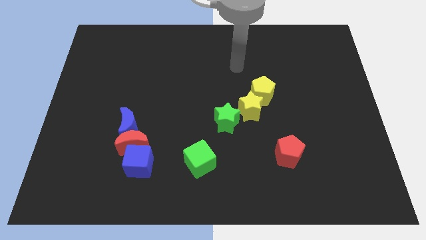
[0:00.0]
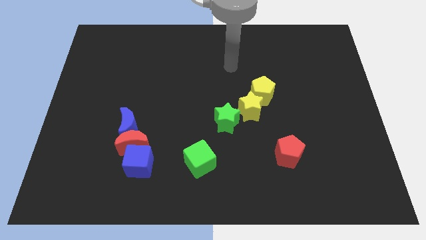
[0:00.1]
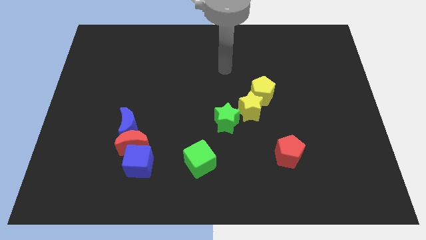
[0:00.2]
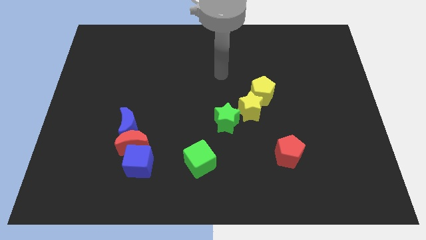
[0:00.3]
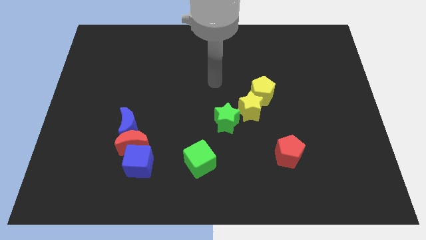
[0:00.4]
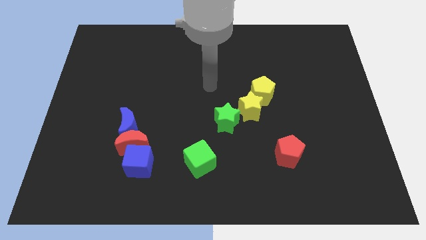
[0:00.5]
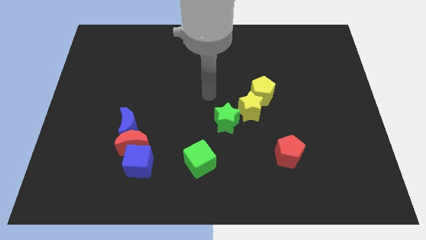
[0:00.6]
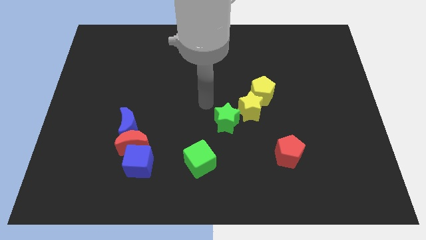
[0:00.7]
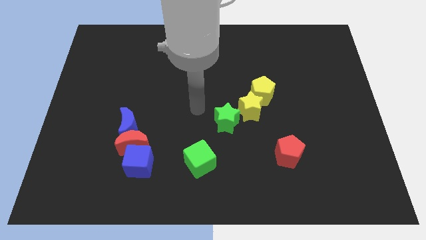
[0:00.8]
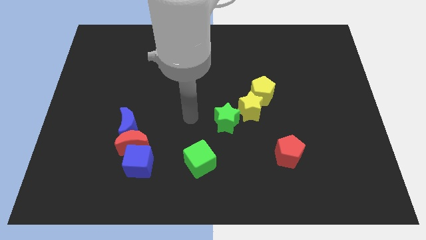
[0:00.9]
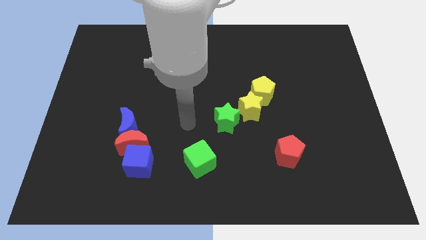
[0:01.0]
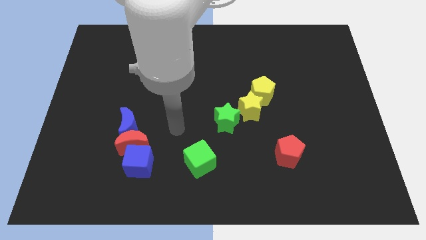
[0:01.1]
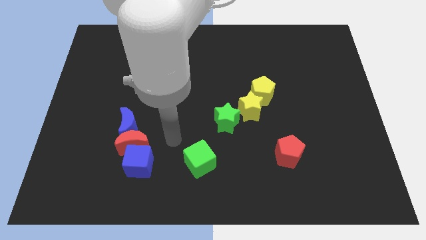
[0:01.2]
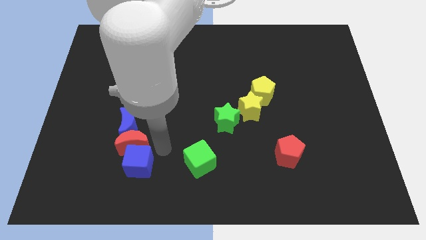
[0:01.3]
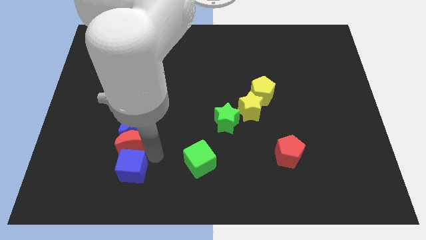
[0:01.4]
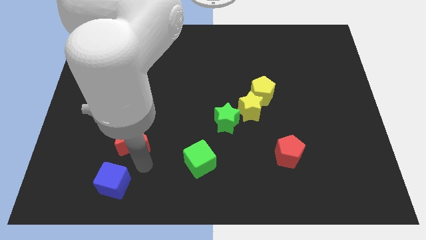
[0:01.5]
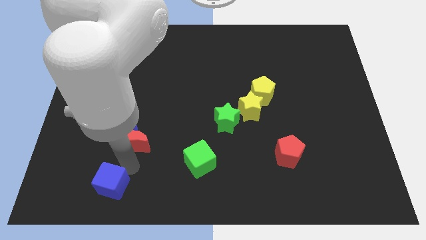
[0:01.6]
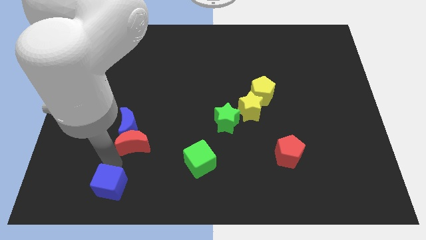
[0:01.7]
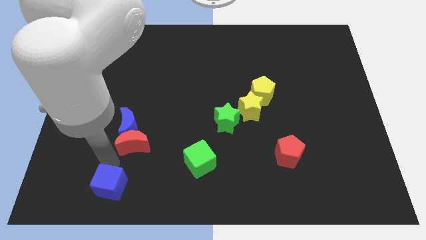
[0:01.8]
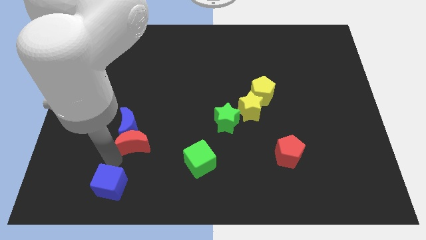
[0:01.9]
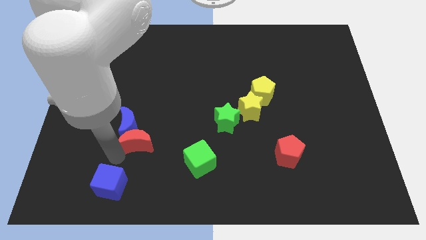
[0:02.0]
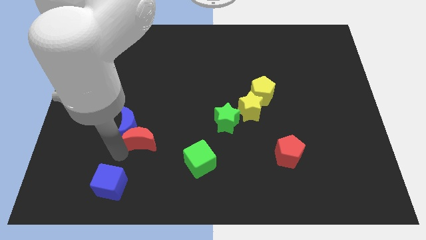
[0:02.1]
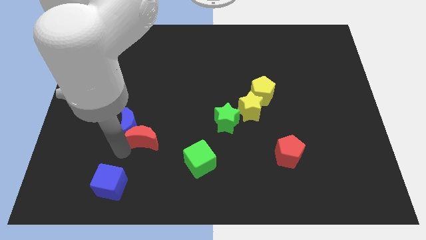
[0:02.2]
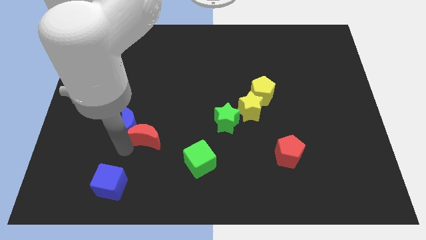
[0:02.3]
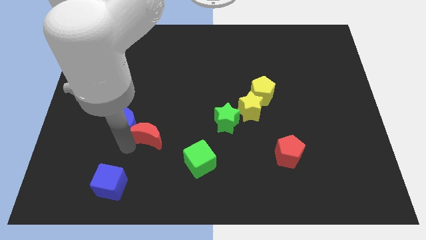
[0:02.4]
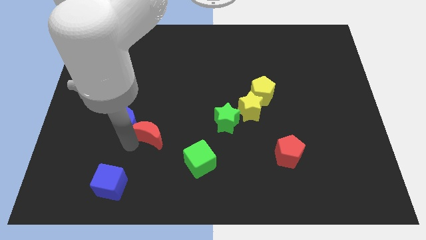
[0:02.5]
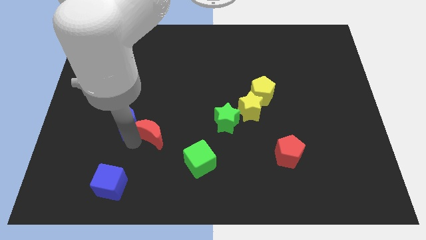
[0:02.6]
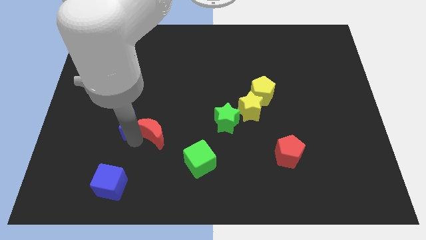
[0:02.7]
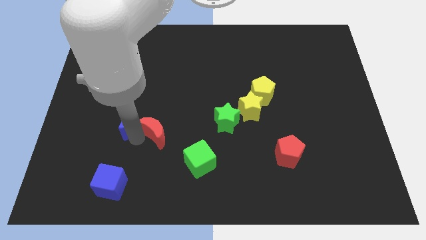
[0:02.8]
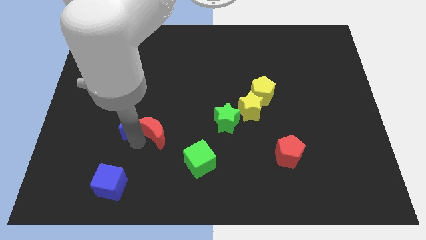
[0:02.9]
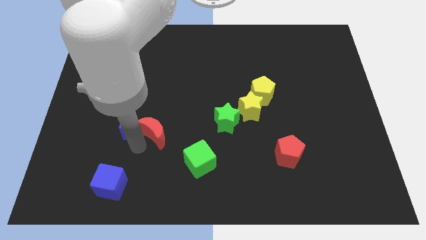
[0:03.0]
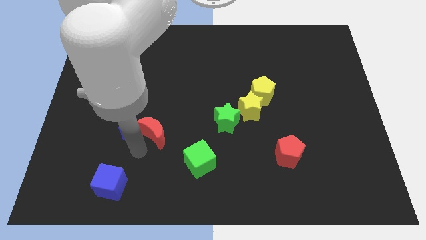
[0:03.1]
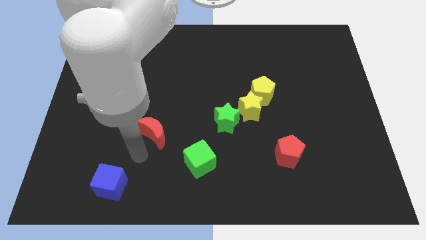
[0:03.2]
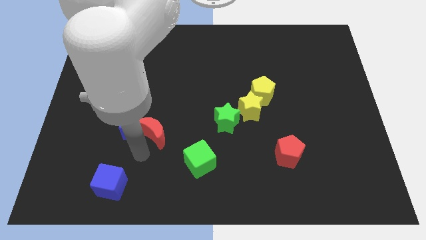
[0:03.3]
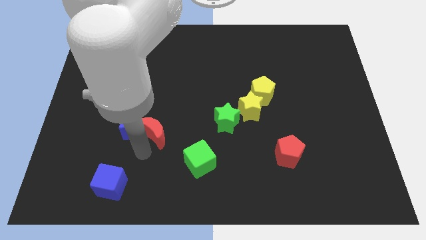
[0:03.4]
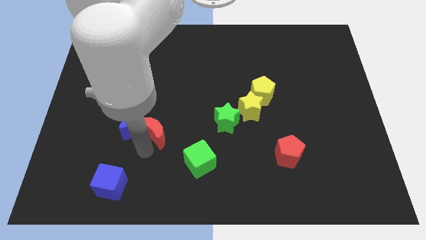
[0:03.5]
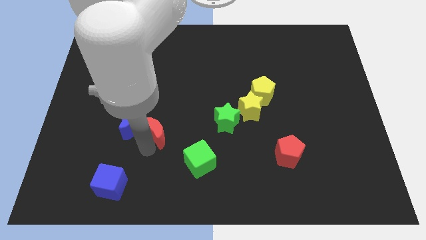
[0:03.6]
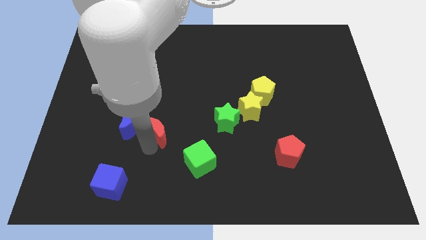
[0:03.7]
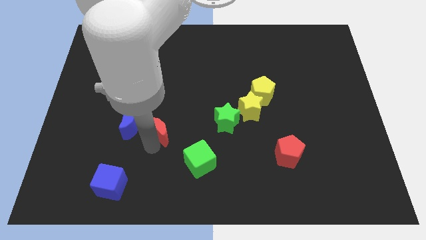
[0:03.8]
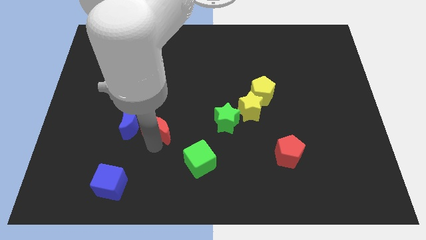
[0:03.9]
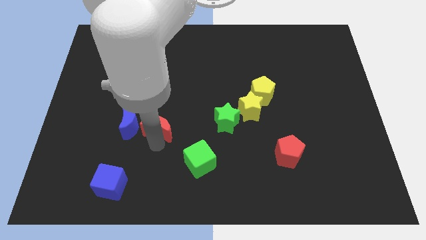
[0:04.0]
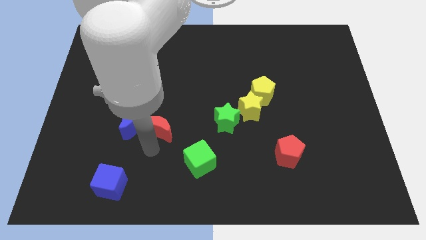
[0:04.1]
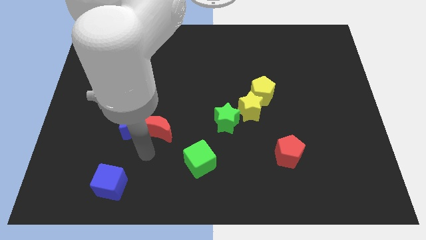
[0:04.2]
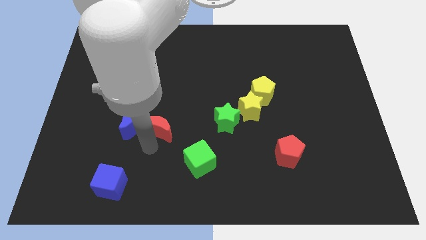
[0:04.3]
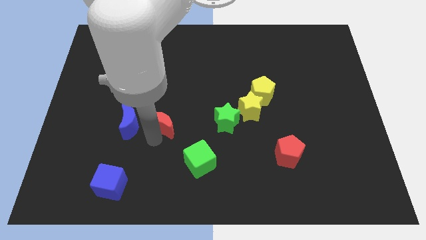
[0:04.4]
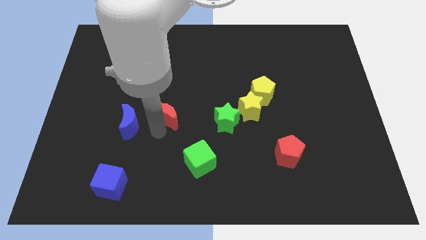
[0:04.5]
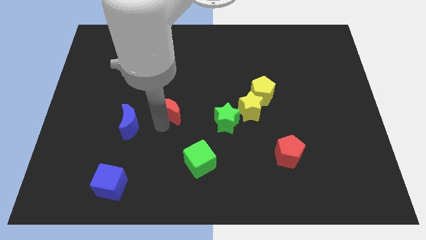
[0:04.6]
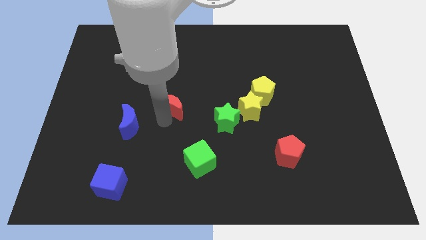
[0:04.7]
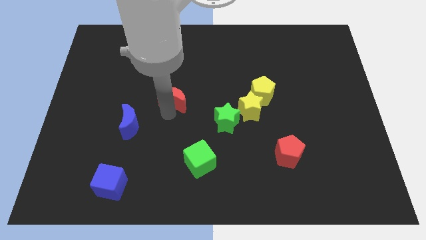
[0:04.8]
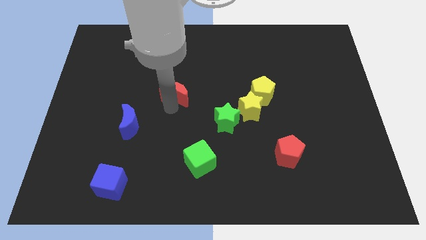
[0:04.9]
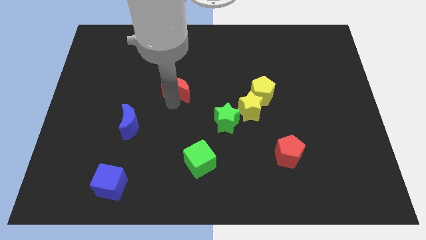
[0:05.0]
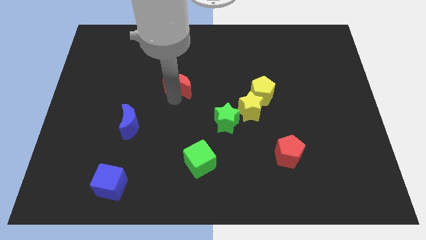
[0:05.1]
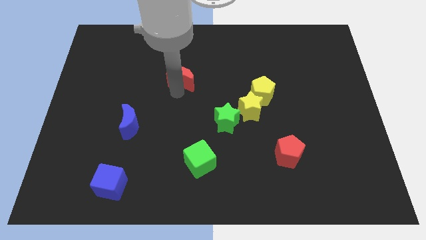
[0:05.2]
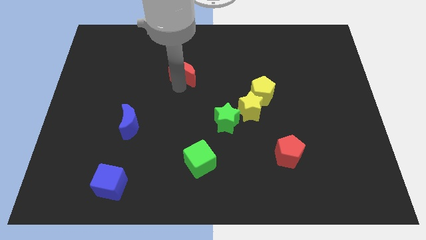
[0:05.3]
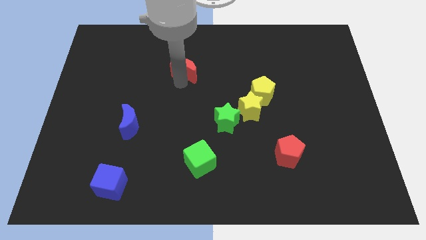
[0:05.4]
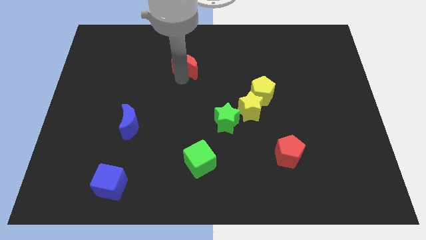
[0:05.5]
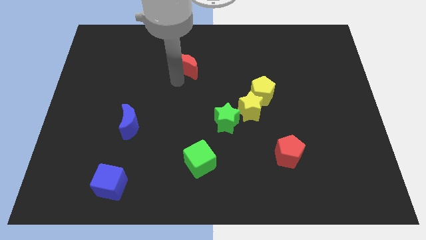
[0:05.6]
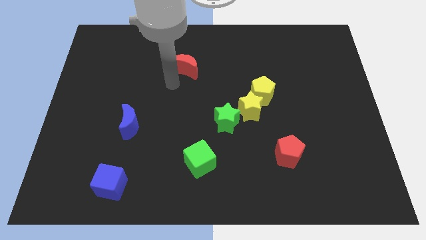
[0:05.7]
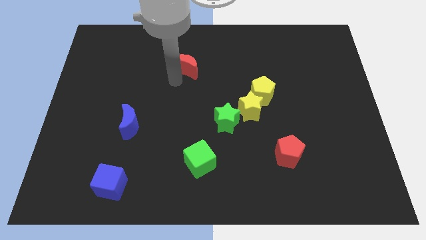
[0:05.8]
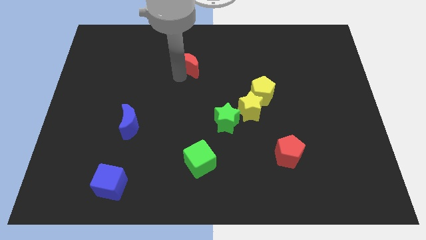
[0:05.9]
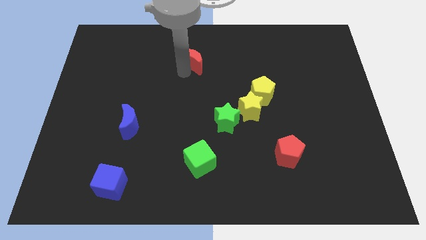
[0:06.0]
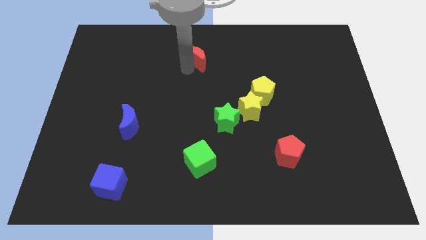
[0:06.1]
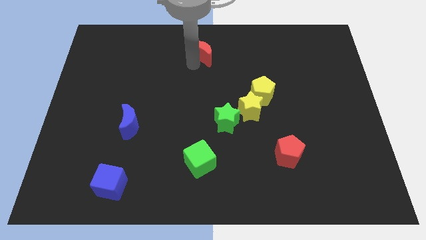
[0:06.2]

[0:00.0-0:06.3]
move the red moon to the towards your base
